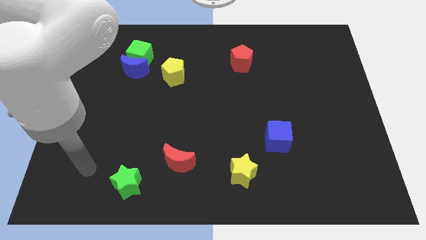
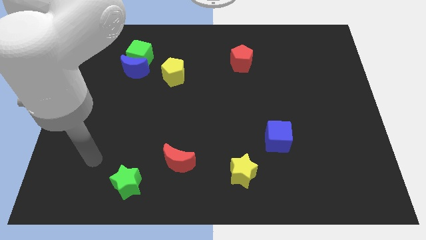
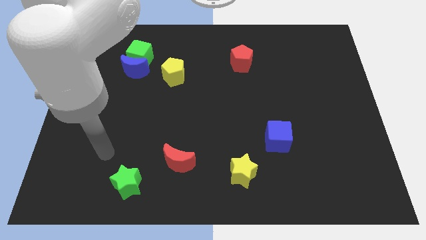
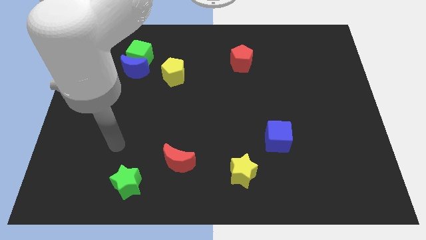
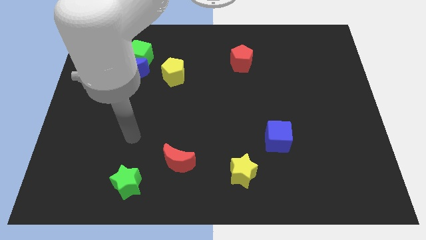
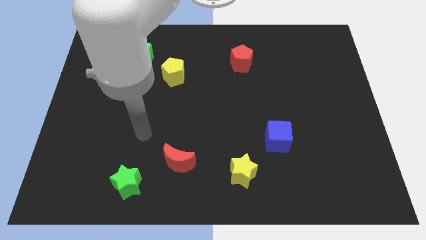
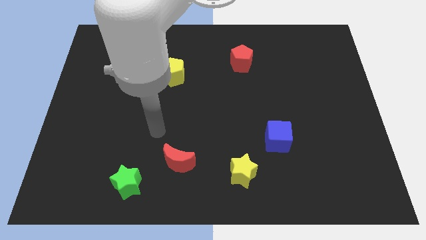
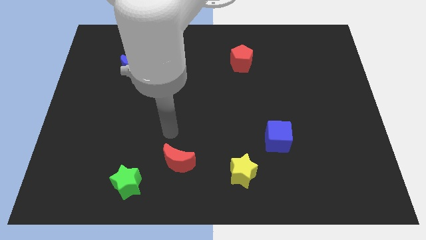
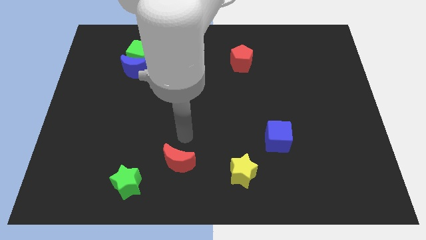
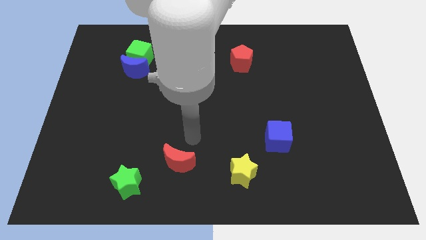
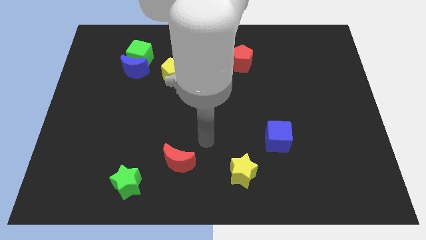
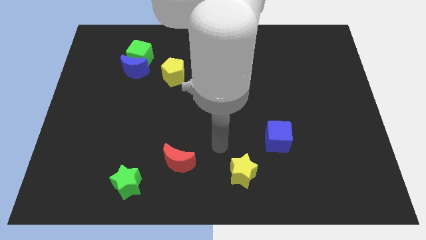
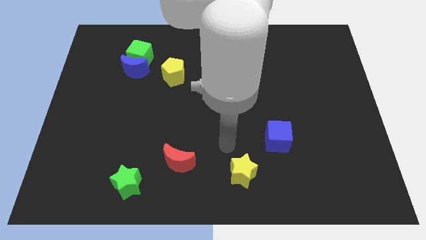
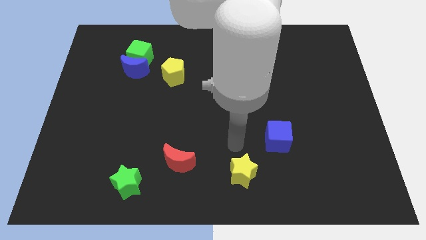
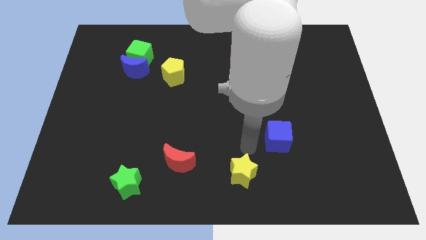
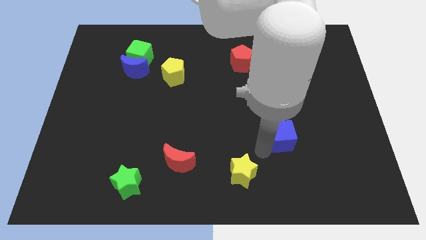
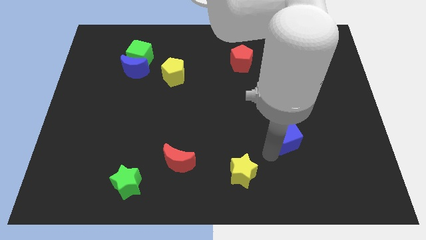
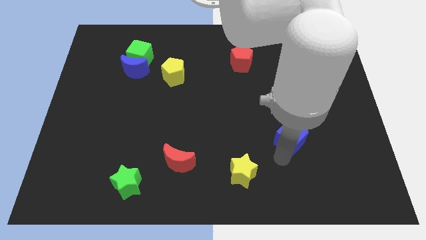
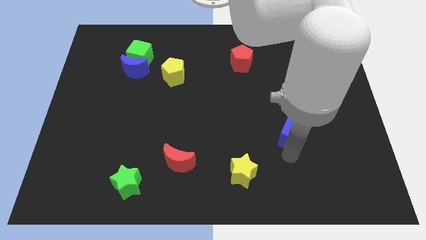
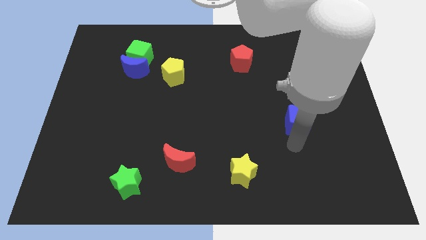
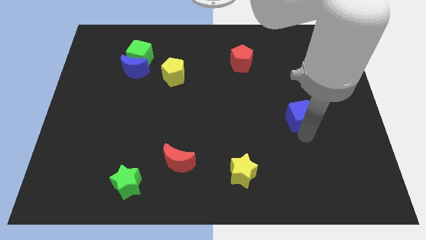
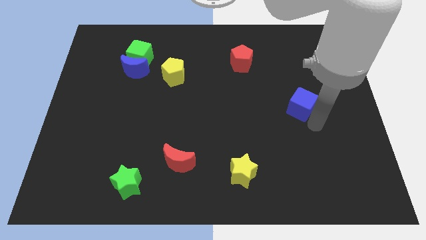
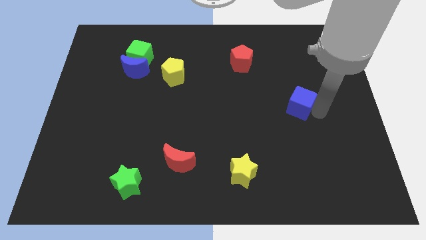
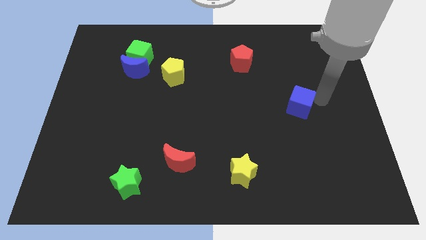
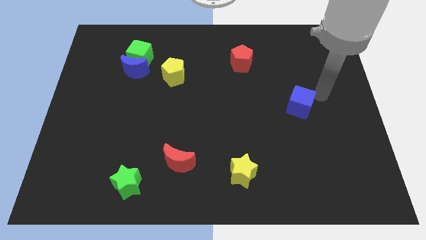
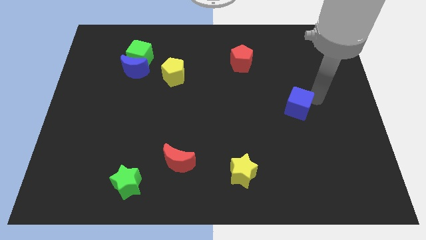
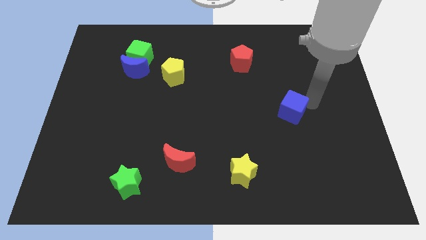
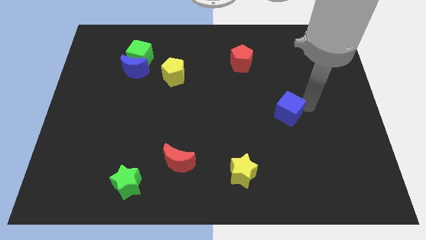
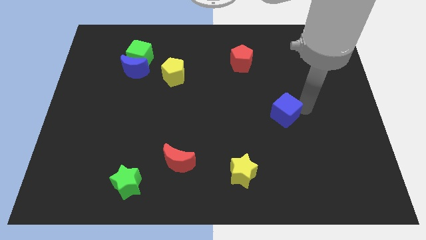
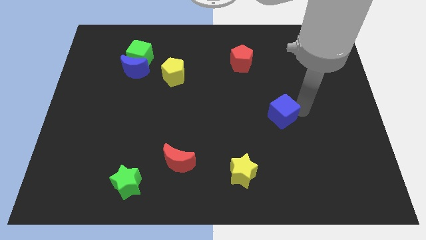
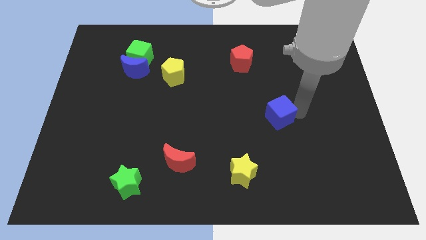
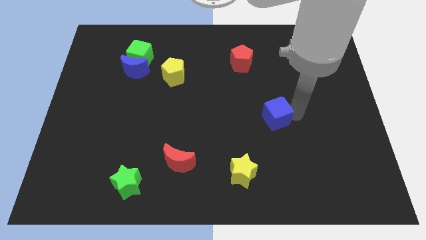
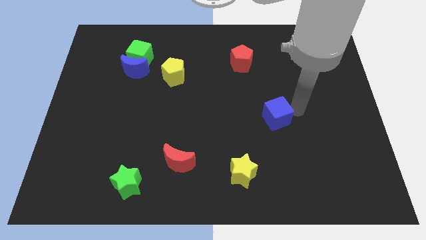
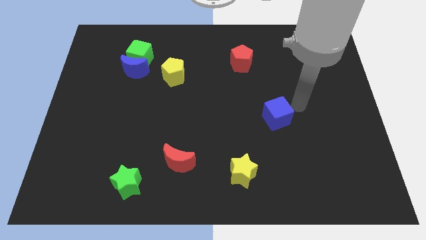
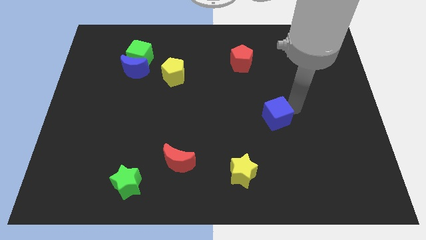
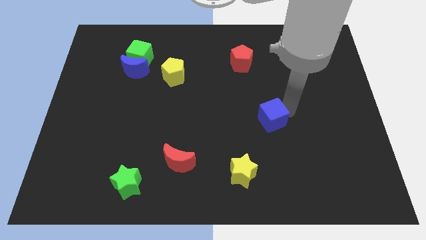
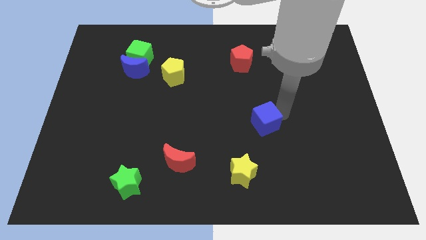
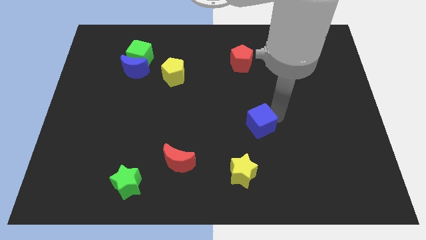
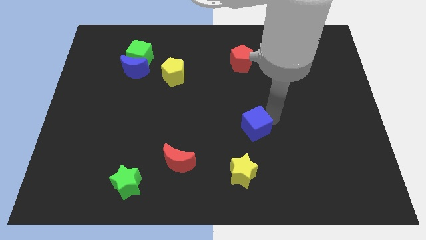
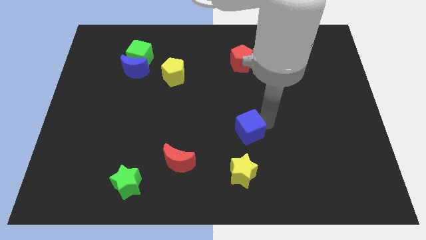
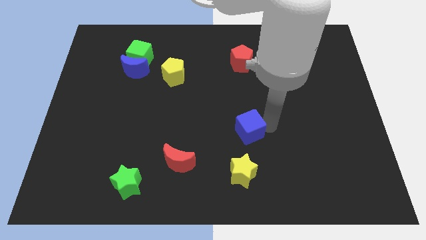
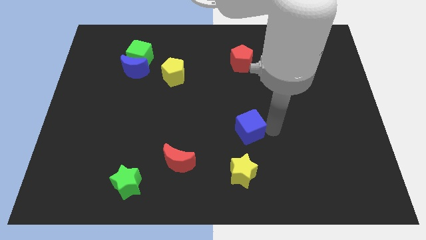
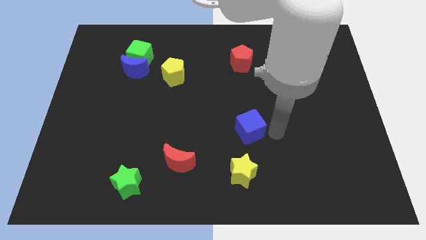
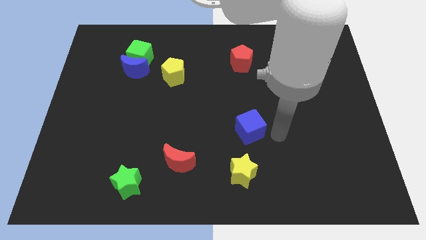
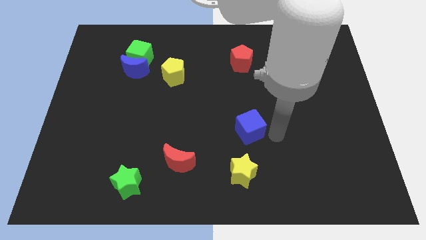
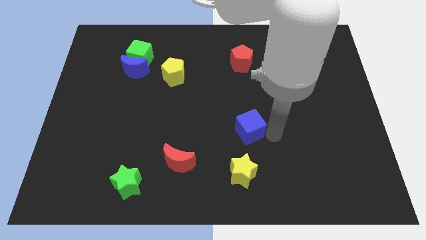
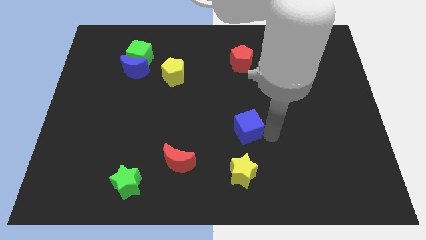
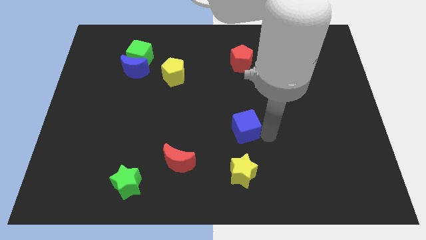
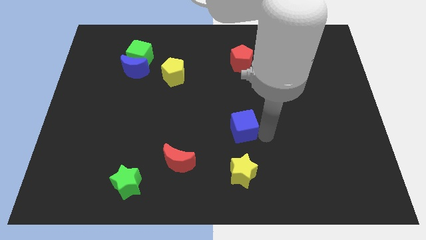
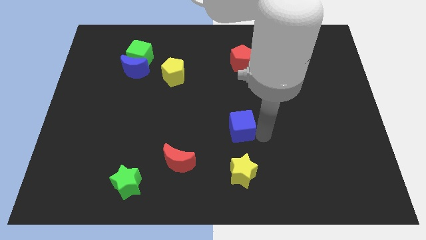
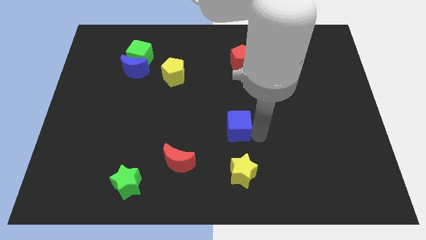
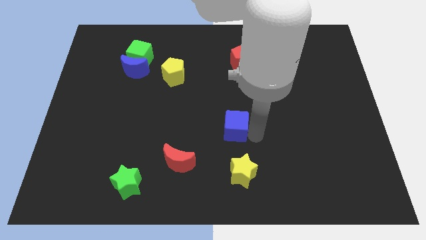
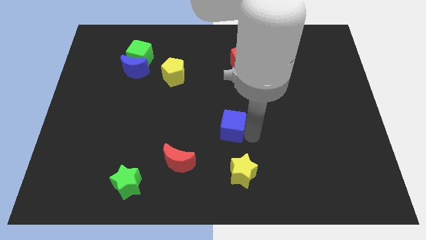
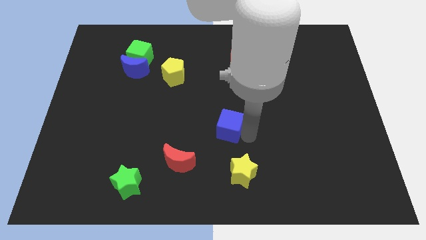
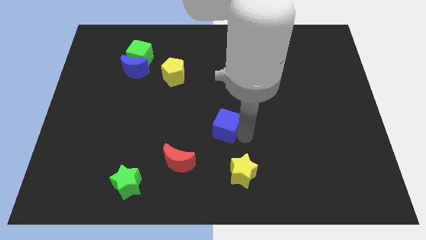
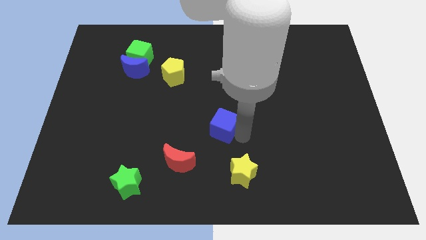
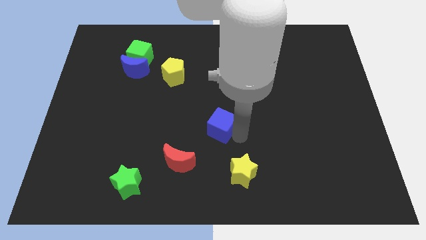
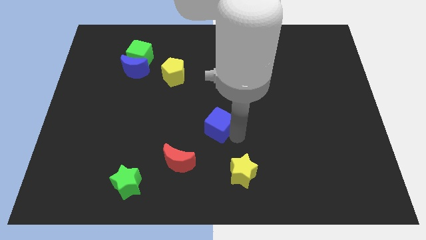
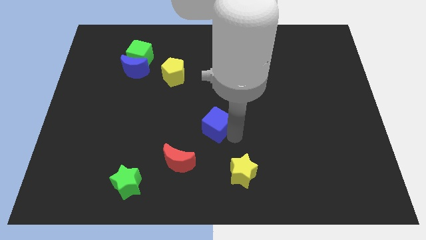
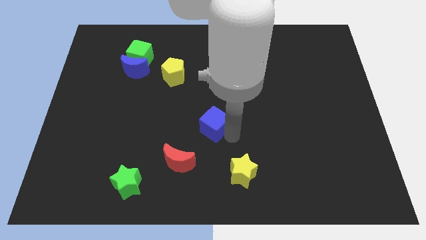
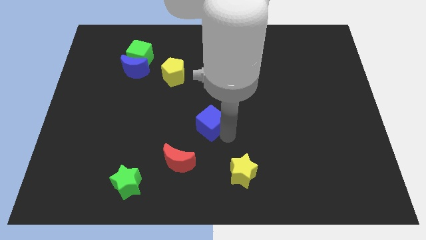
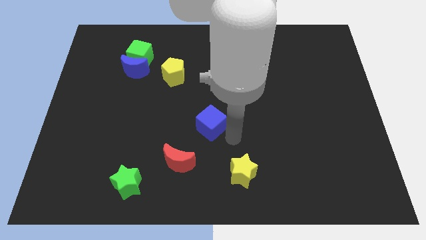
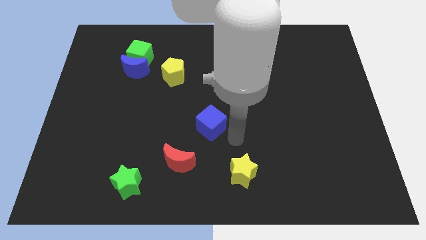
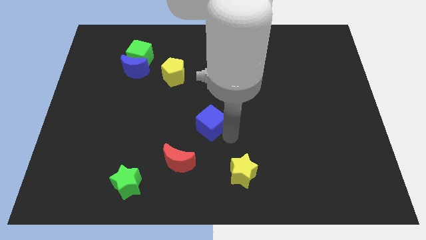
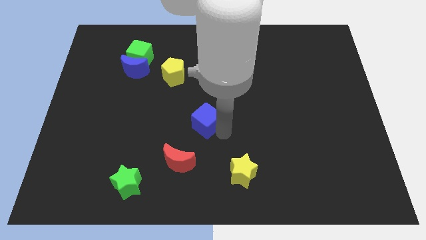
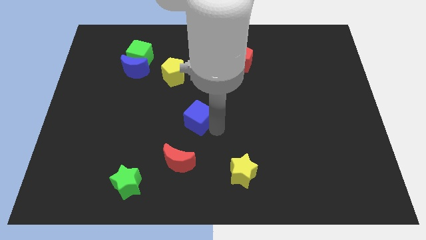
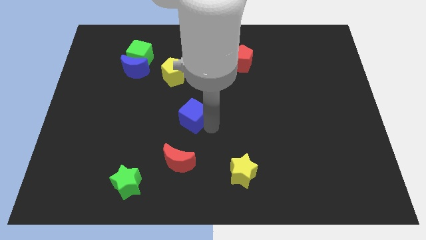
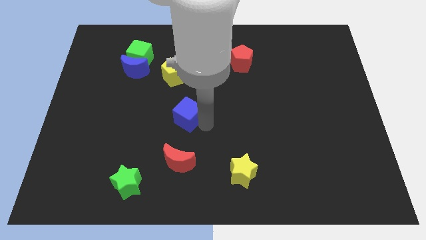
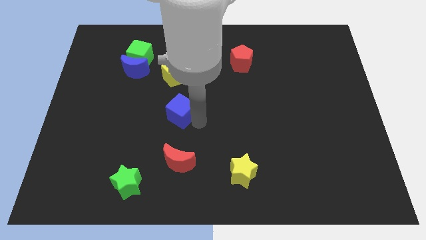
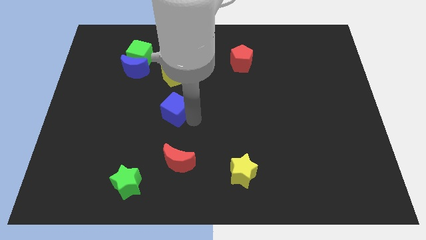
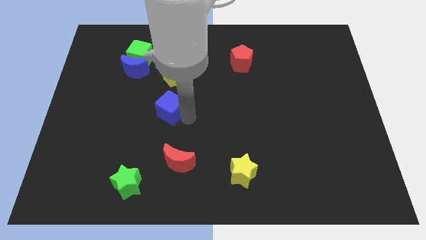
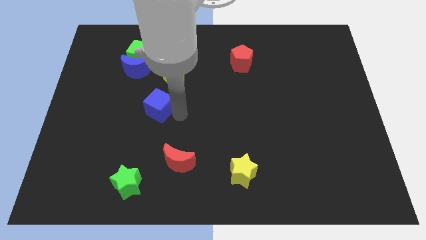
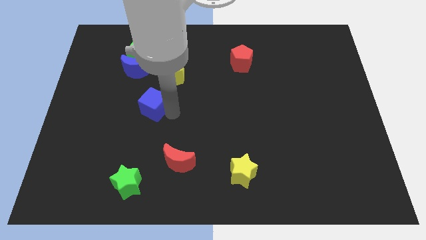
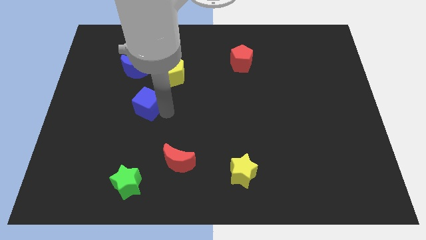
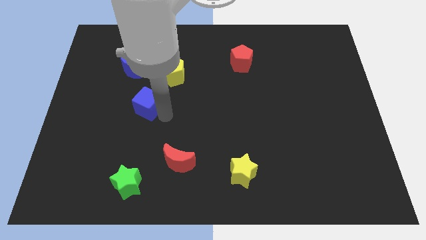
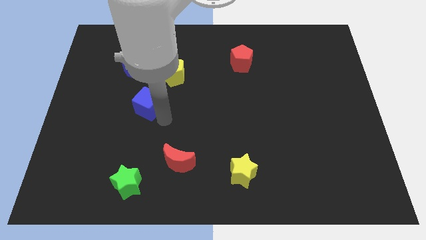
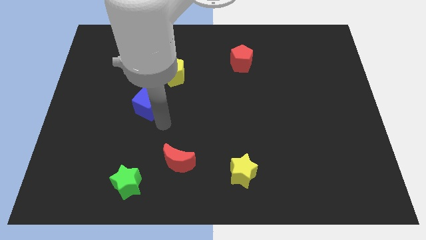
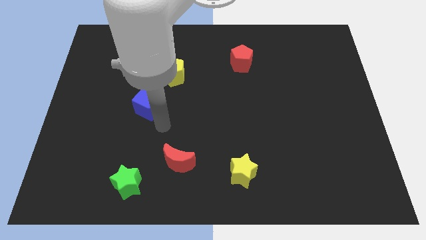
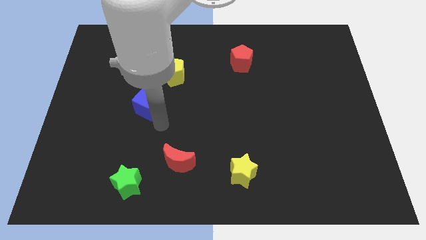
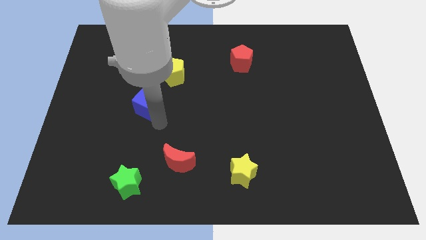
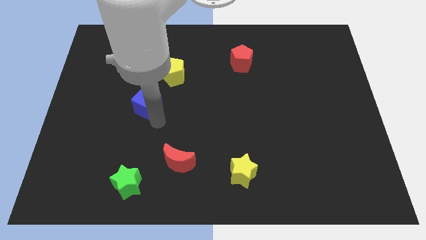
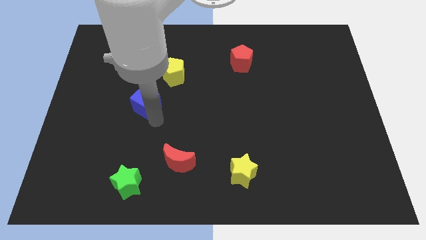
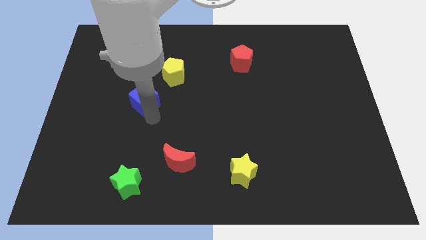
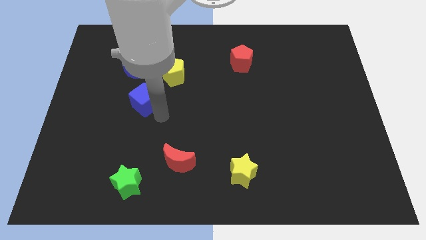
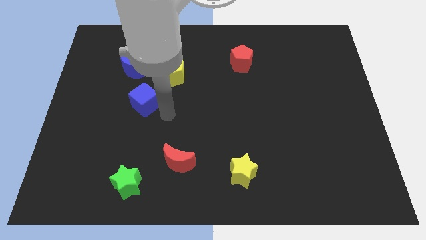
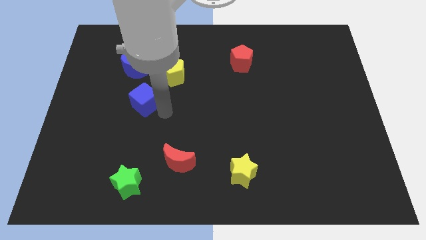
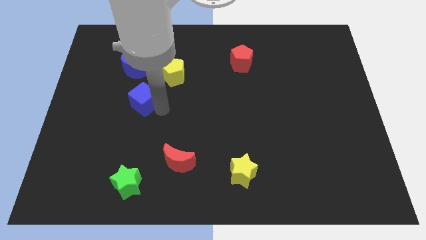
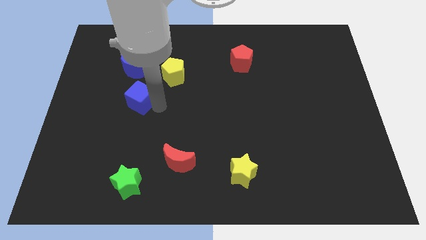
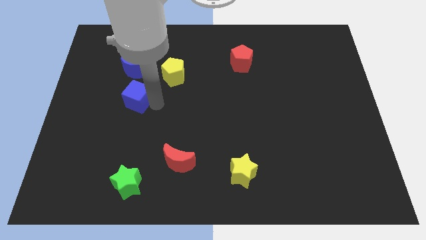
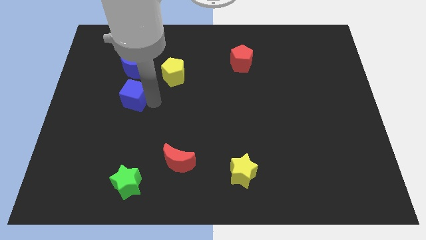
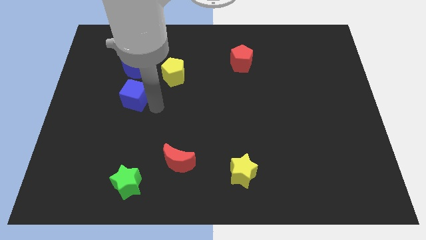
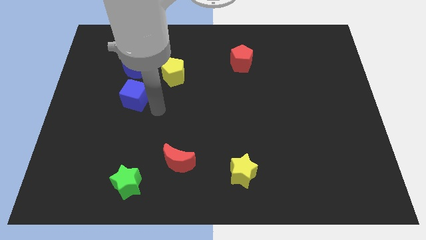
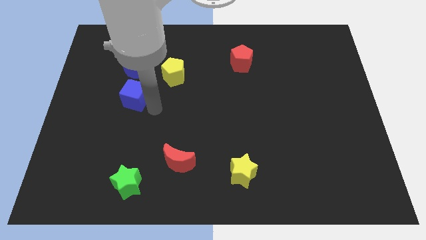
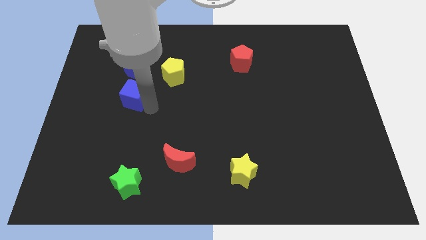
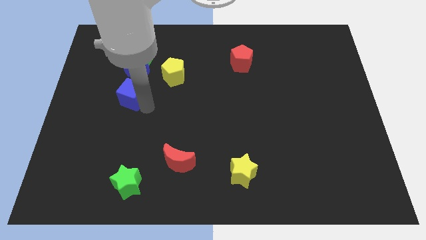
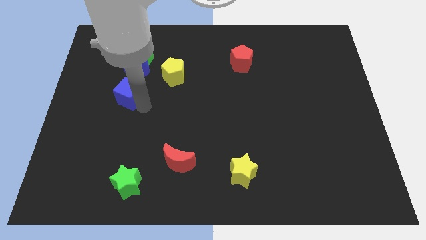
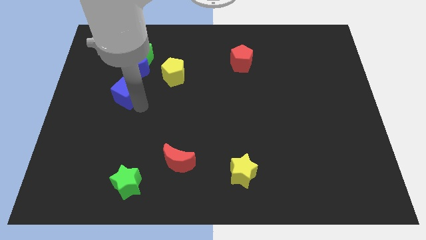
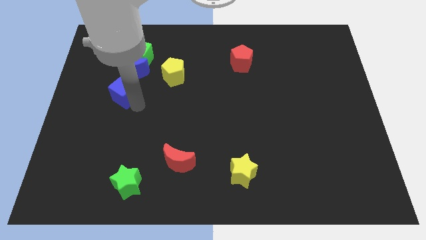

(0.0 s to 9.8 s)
slide the blue cube diagonally down and to the left of the blue moon
